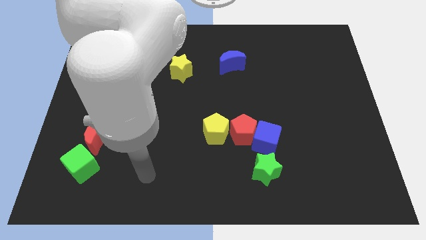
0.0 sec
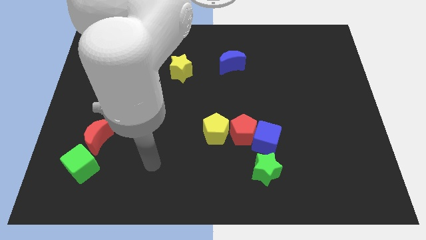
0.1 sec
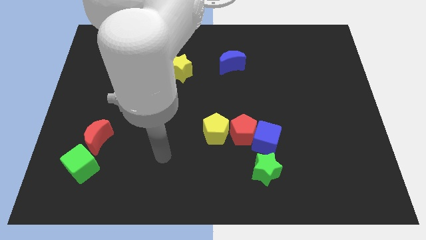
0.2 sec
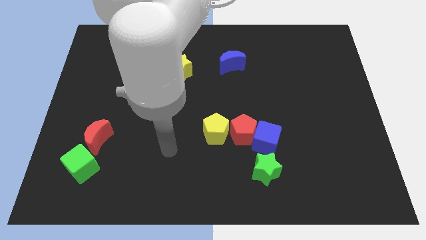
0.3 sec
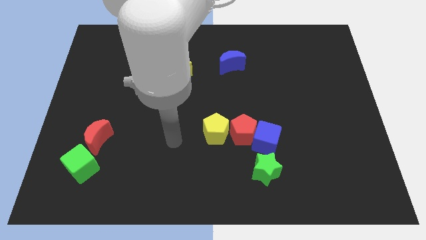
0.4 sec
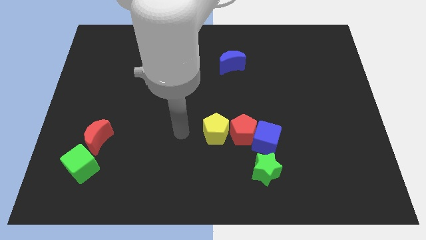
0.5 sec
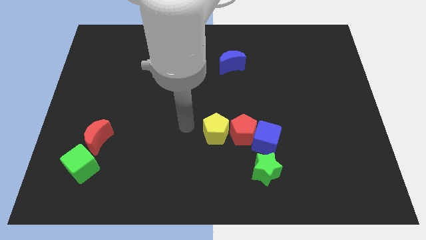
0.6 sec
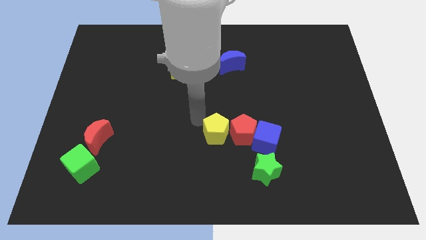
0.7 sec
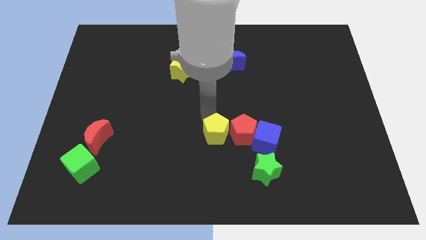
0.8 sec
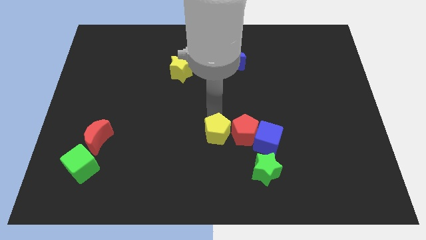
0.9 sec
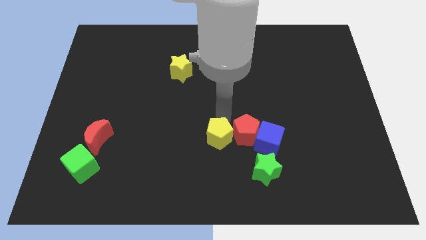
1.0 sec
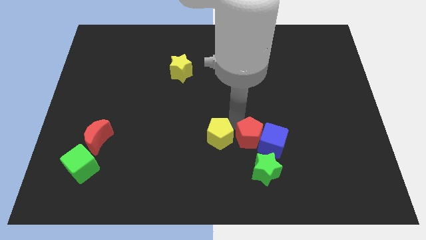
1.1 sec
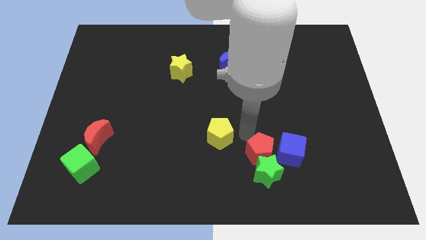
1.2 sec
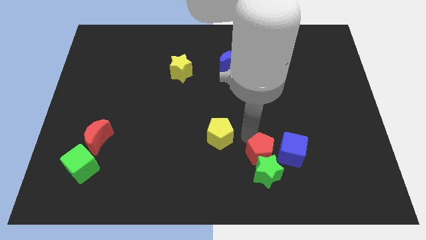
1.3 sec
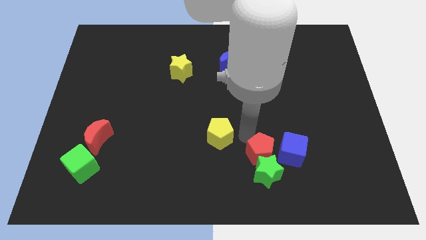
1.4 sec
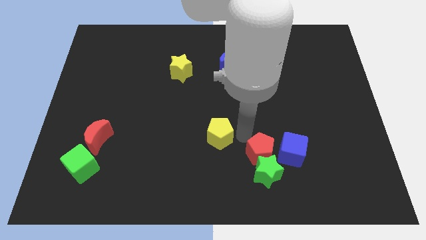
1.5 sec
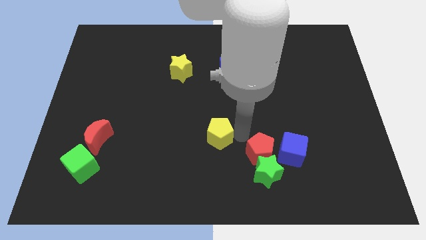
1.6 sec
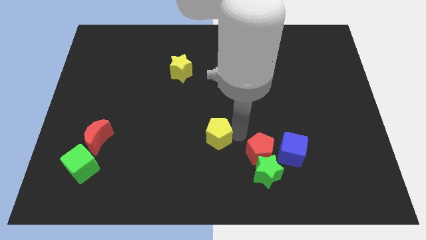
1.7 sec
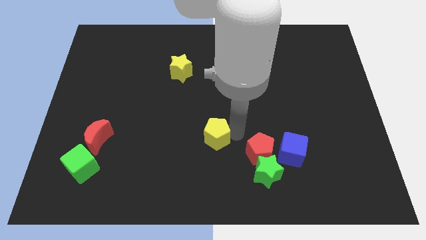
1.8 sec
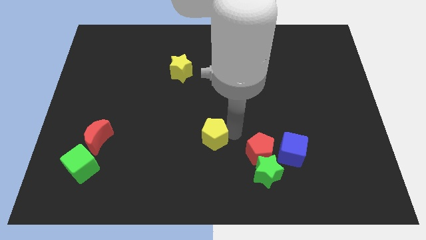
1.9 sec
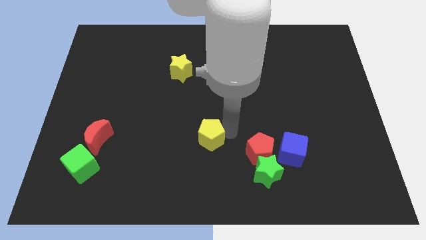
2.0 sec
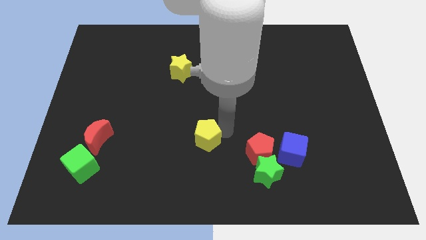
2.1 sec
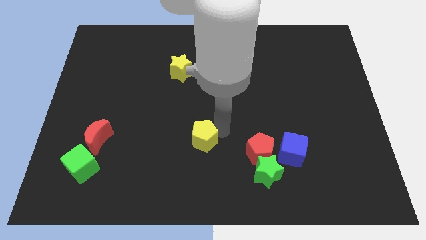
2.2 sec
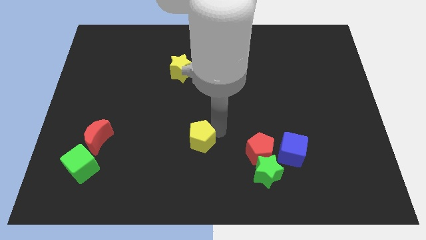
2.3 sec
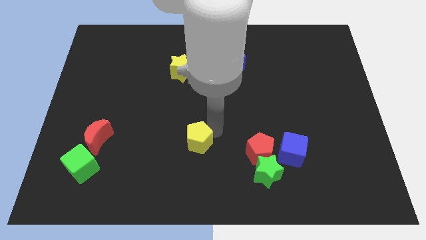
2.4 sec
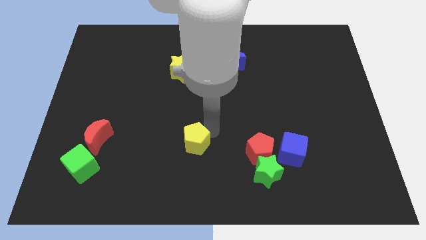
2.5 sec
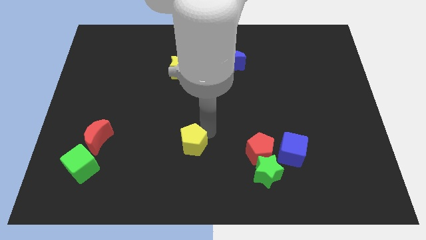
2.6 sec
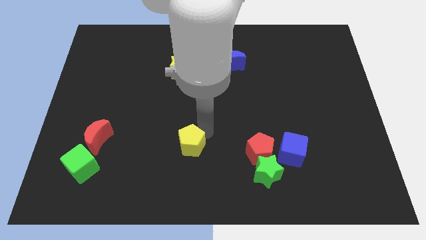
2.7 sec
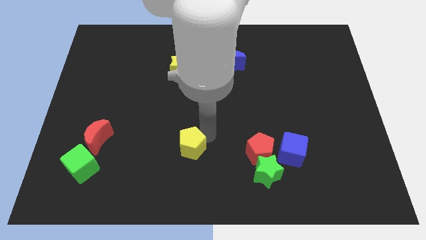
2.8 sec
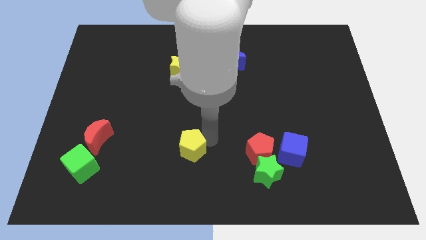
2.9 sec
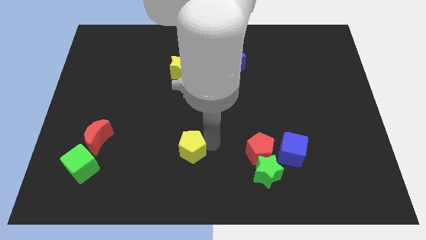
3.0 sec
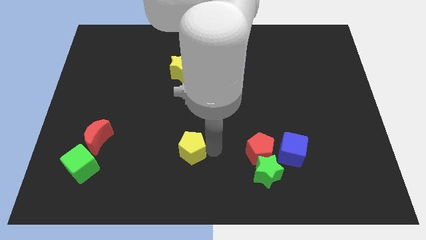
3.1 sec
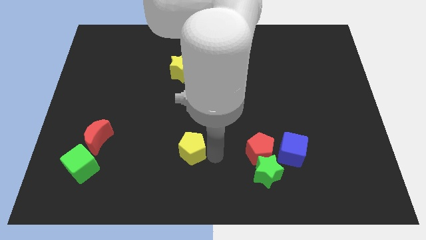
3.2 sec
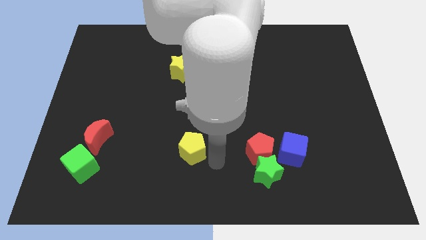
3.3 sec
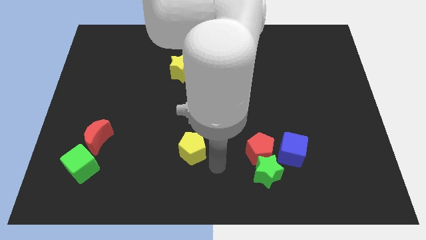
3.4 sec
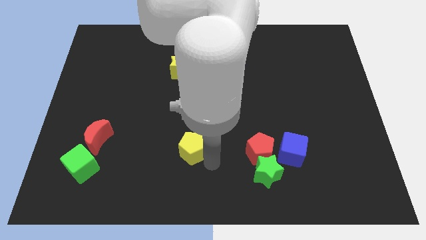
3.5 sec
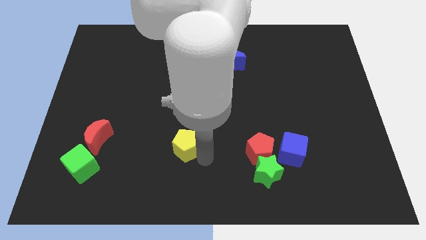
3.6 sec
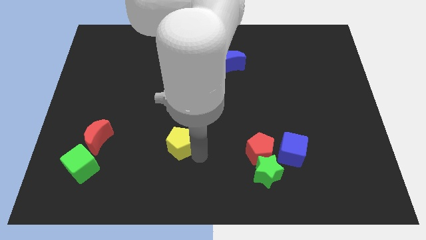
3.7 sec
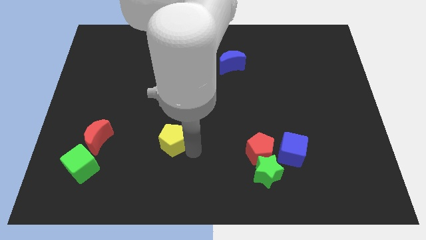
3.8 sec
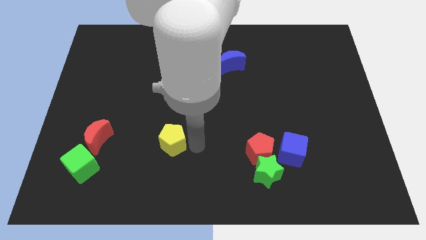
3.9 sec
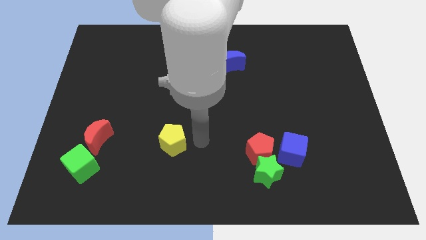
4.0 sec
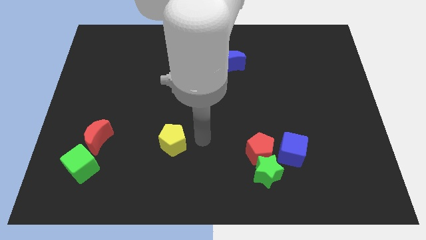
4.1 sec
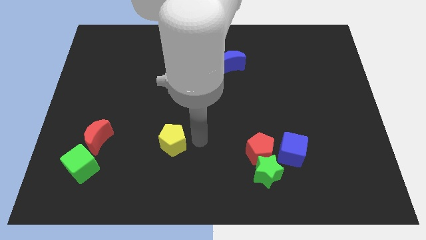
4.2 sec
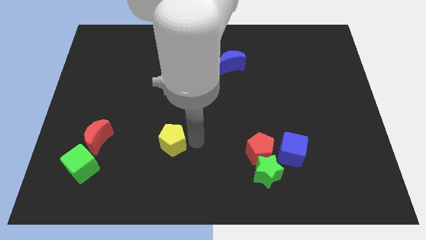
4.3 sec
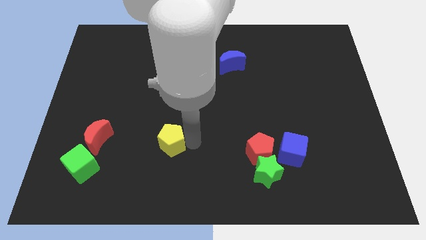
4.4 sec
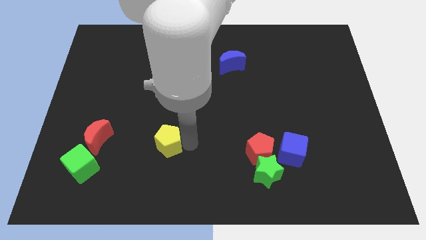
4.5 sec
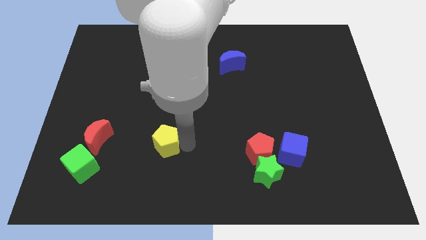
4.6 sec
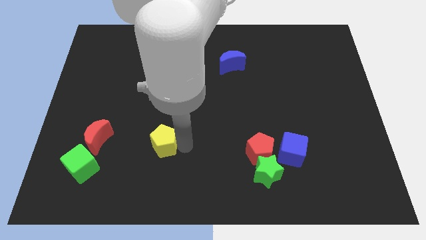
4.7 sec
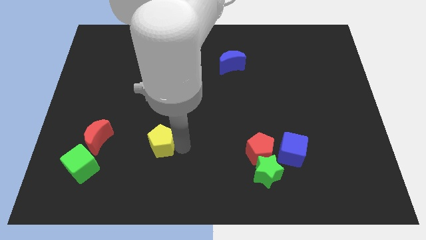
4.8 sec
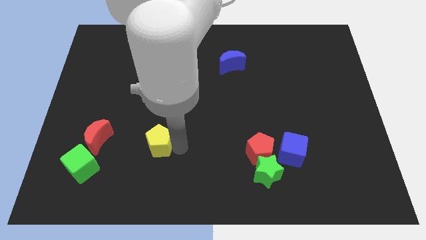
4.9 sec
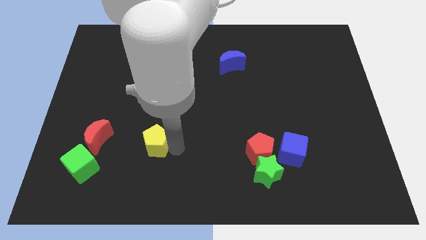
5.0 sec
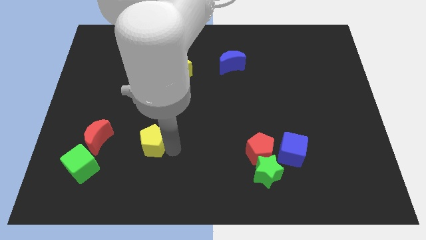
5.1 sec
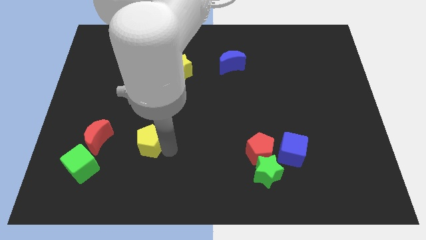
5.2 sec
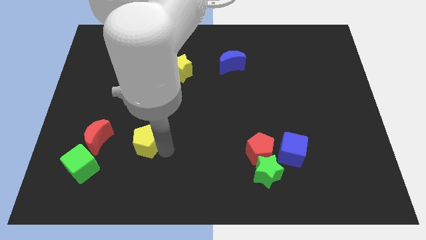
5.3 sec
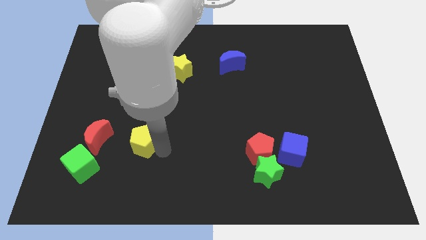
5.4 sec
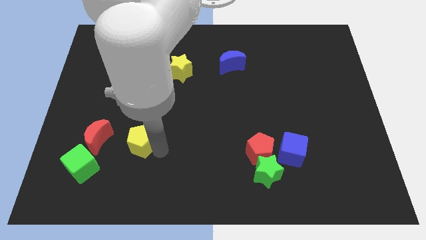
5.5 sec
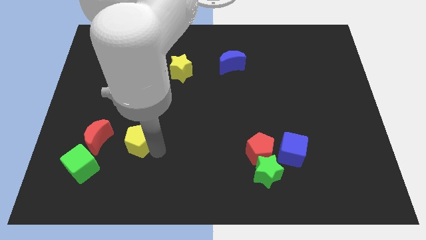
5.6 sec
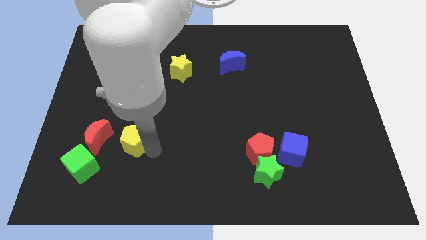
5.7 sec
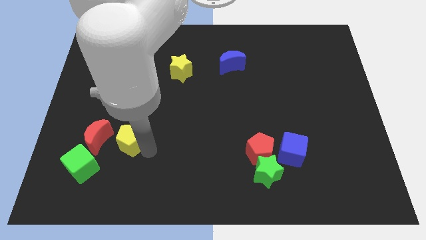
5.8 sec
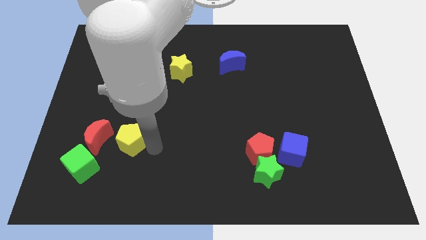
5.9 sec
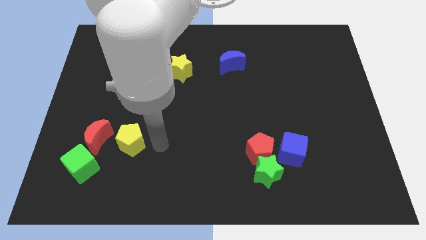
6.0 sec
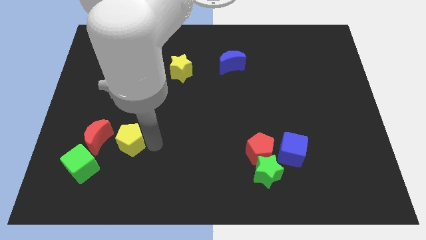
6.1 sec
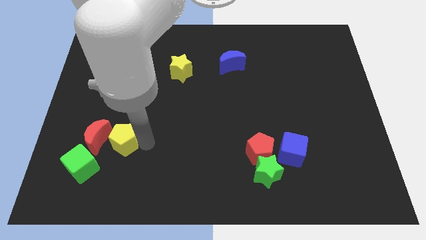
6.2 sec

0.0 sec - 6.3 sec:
slide the yellow pentagon next to the red moon

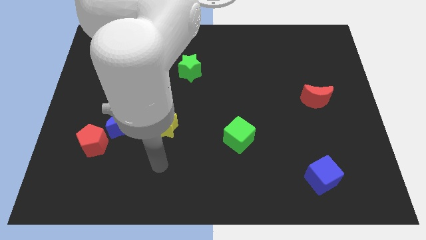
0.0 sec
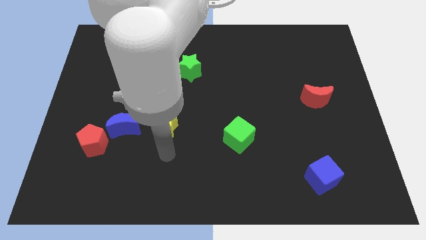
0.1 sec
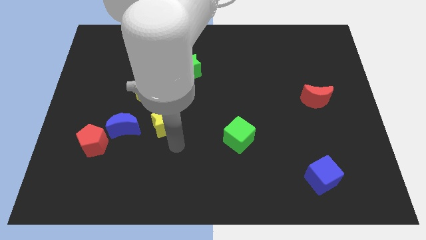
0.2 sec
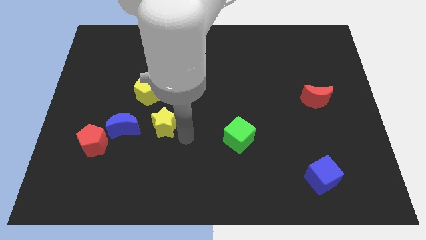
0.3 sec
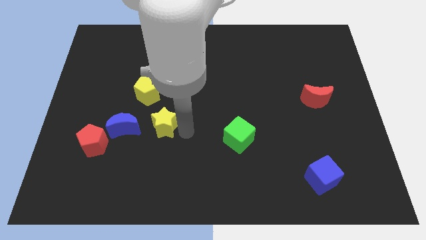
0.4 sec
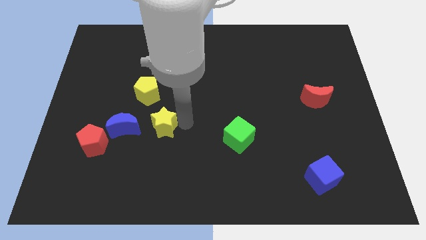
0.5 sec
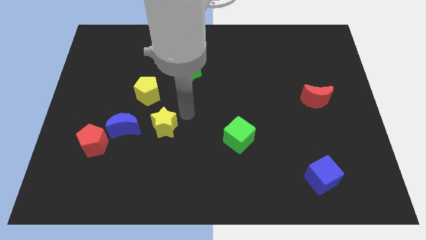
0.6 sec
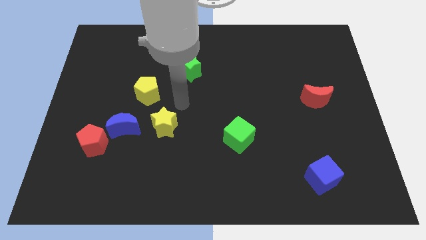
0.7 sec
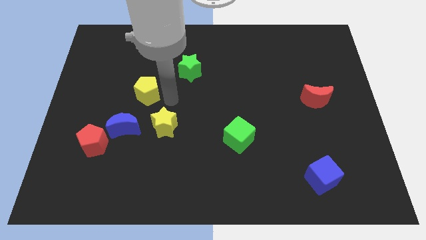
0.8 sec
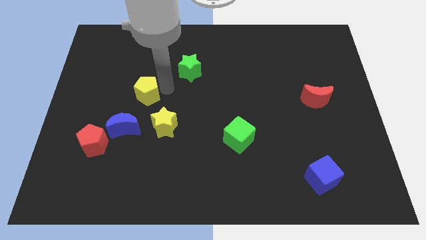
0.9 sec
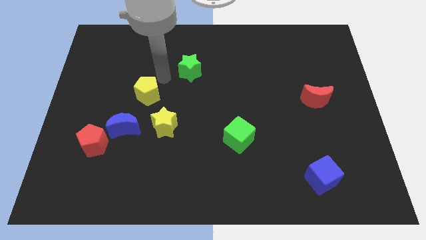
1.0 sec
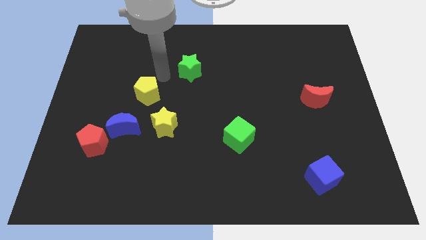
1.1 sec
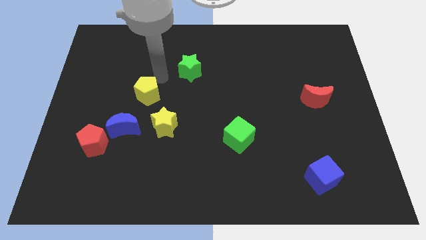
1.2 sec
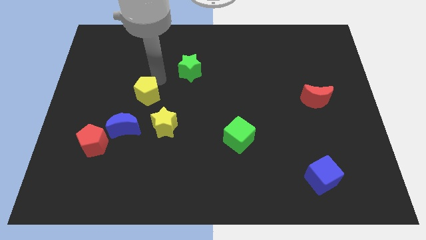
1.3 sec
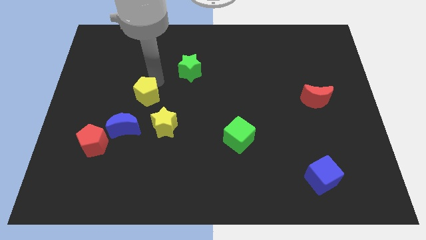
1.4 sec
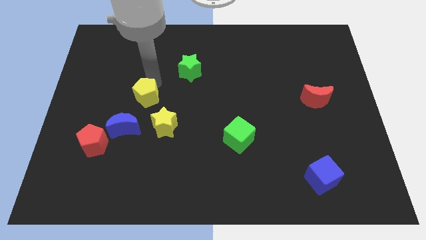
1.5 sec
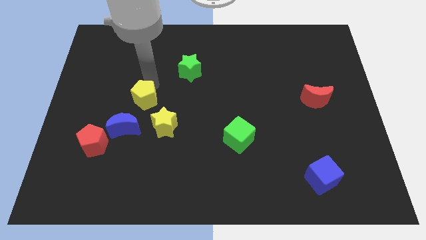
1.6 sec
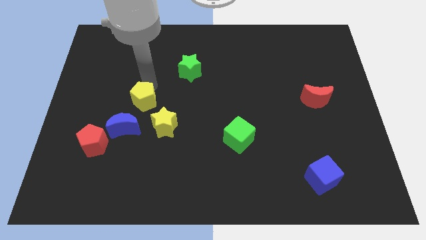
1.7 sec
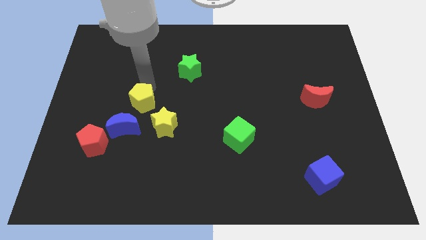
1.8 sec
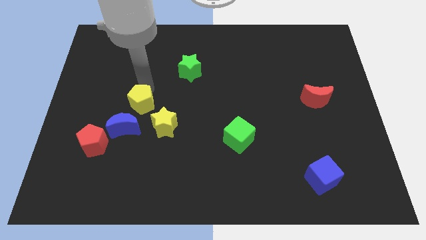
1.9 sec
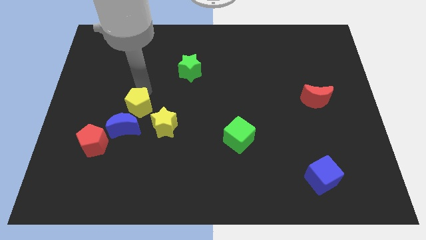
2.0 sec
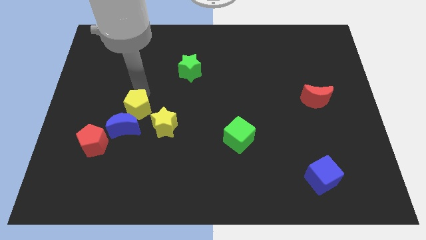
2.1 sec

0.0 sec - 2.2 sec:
move the yellow pentagon to the blue moon
